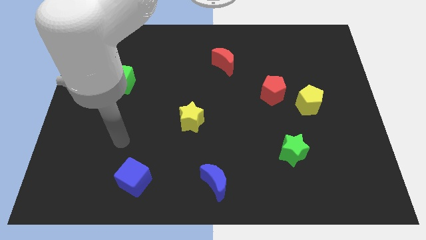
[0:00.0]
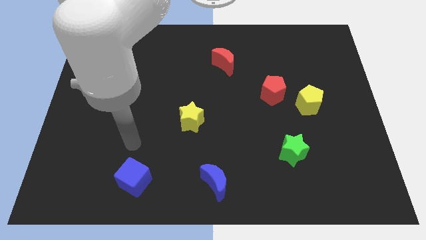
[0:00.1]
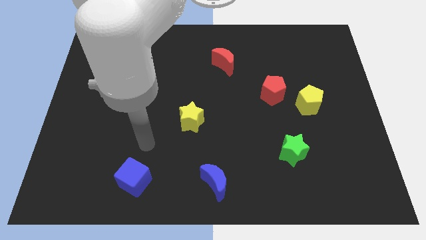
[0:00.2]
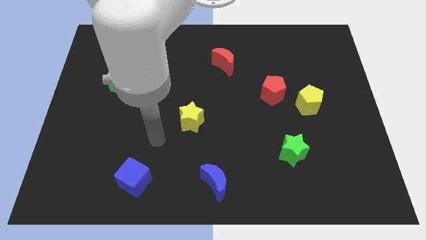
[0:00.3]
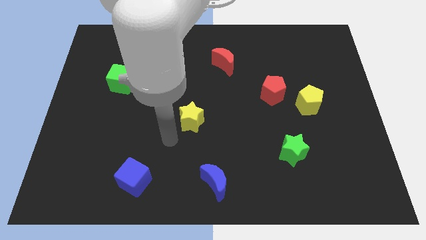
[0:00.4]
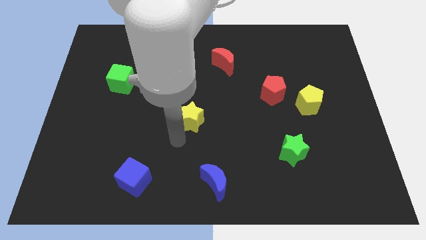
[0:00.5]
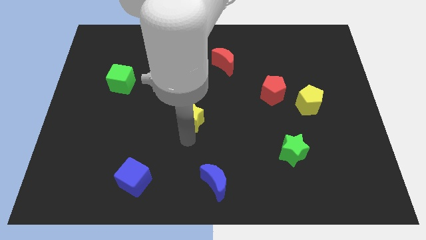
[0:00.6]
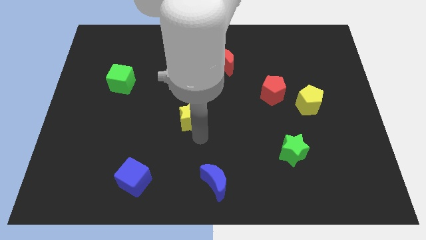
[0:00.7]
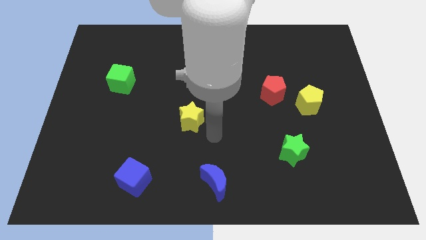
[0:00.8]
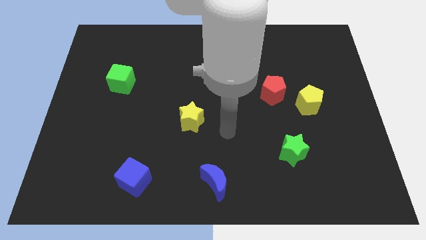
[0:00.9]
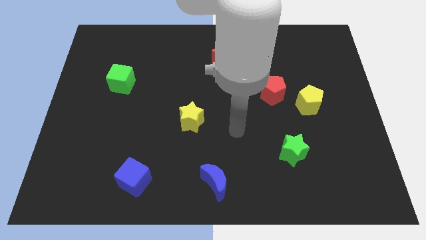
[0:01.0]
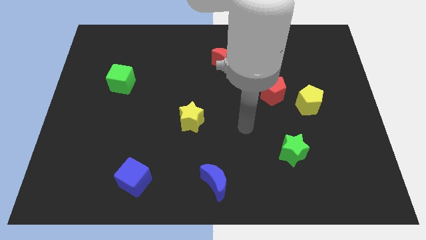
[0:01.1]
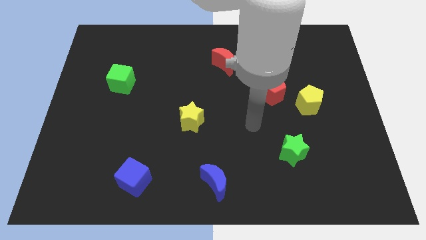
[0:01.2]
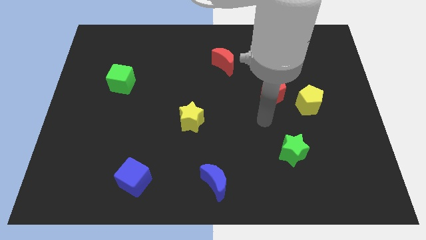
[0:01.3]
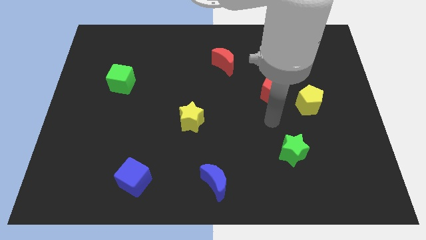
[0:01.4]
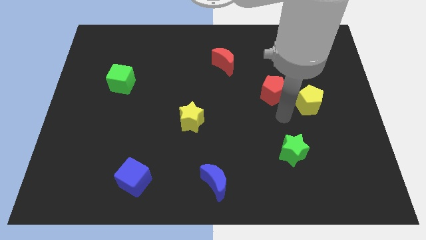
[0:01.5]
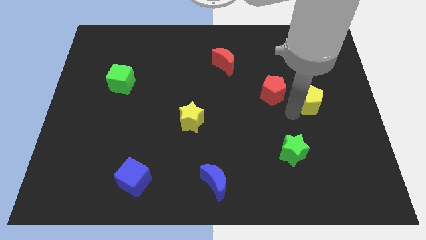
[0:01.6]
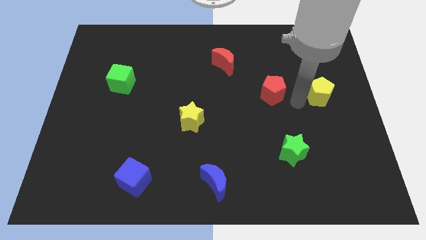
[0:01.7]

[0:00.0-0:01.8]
move the red pentagon away from the yellow pentagon

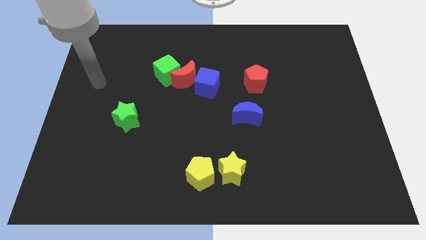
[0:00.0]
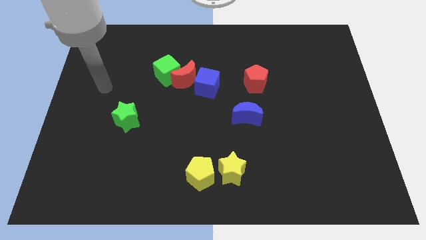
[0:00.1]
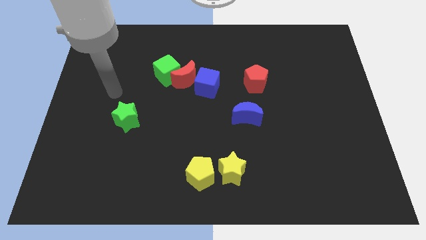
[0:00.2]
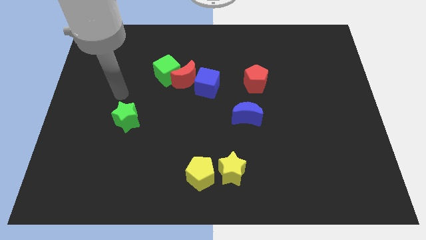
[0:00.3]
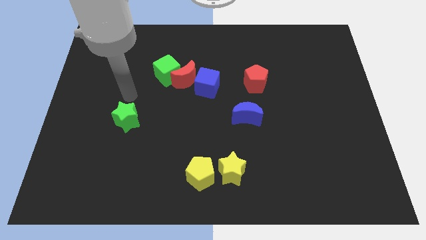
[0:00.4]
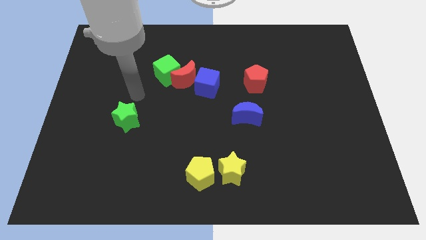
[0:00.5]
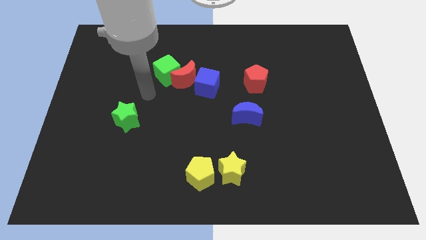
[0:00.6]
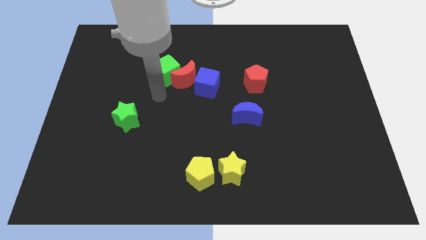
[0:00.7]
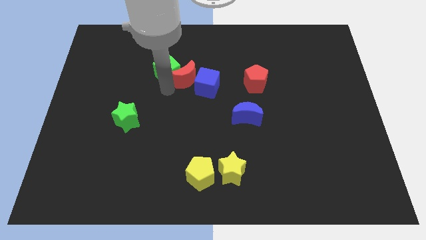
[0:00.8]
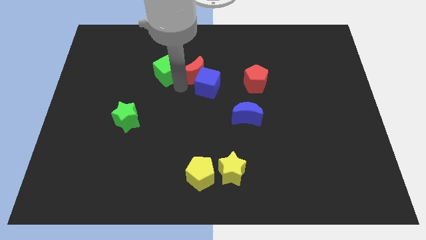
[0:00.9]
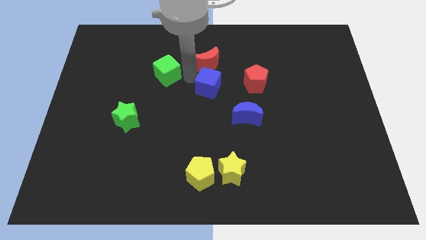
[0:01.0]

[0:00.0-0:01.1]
separate the green cube from the red moon

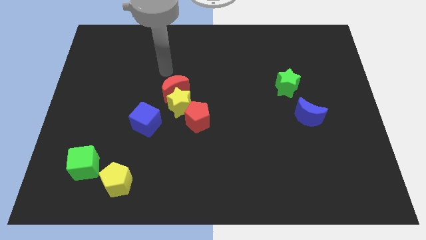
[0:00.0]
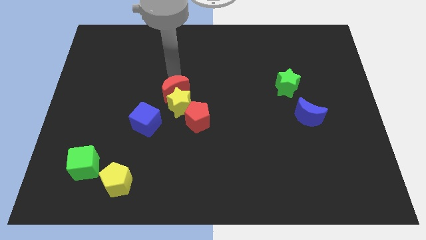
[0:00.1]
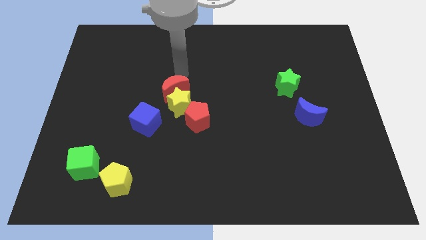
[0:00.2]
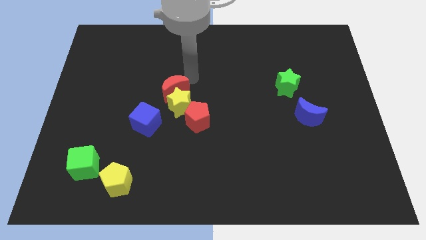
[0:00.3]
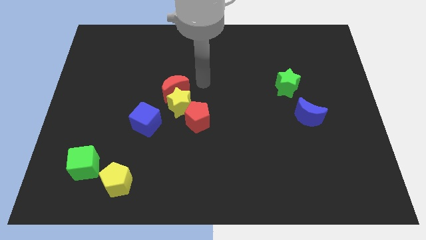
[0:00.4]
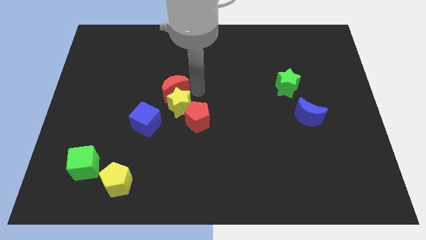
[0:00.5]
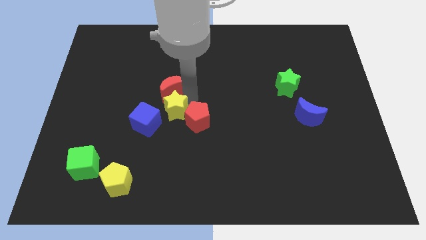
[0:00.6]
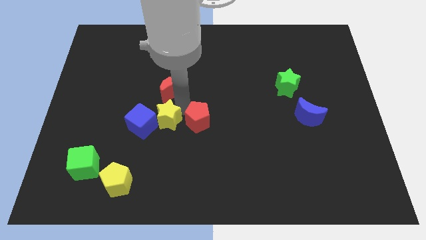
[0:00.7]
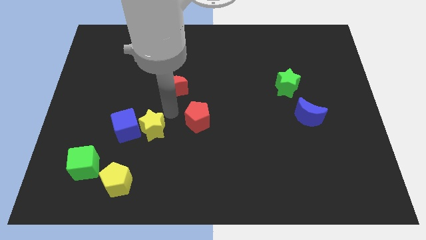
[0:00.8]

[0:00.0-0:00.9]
pull the red moon apart from the yellow star

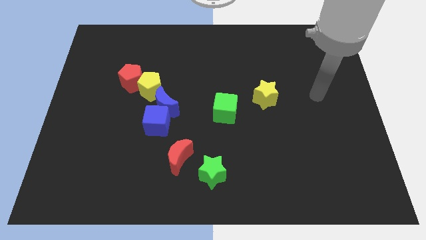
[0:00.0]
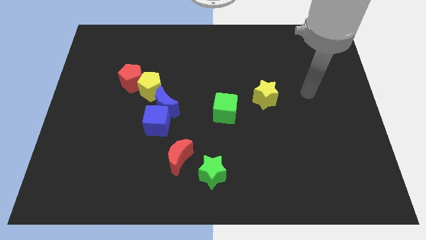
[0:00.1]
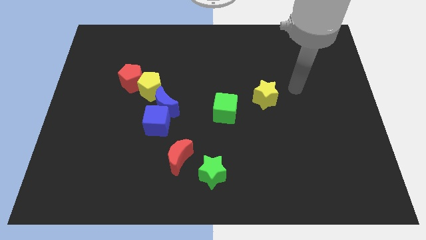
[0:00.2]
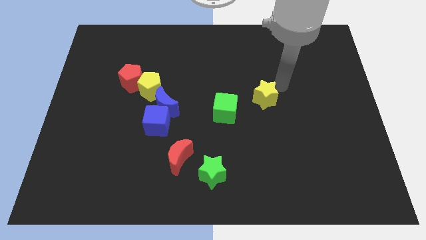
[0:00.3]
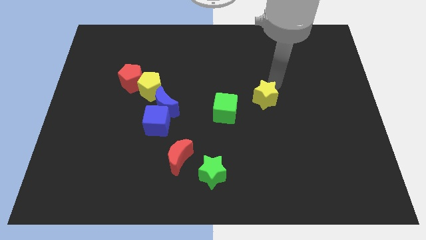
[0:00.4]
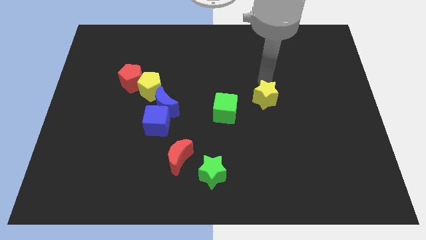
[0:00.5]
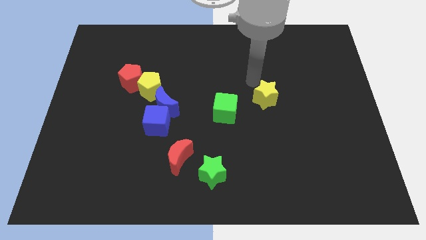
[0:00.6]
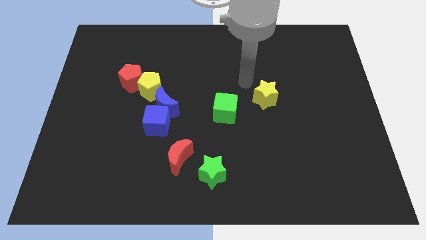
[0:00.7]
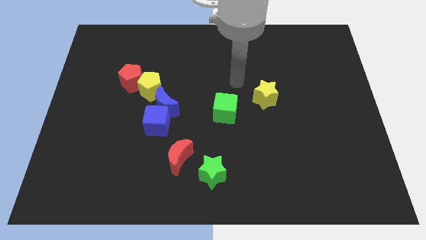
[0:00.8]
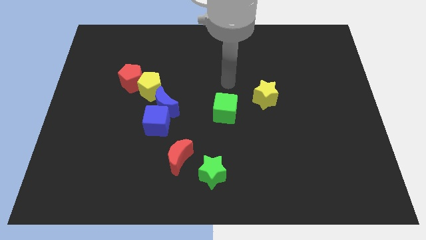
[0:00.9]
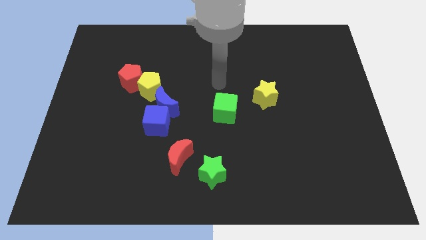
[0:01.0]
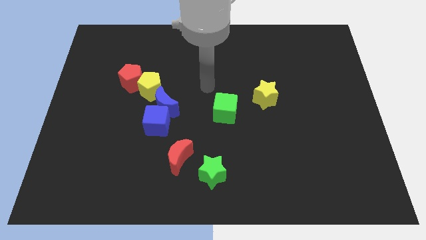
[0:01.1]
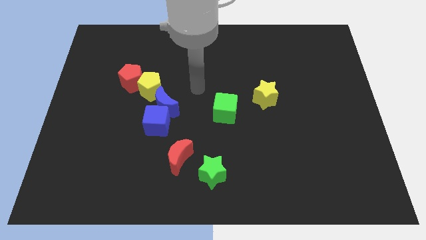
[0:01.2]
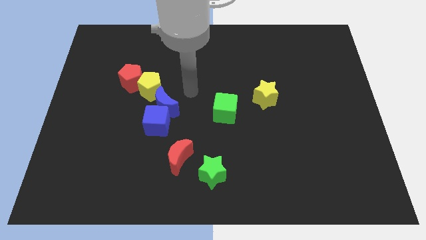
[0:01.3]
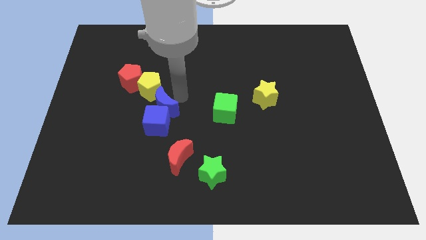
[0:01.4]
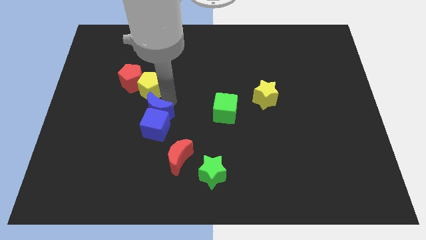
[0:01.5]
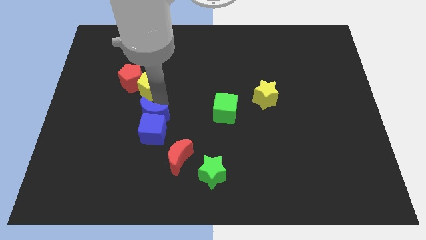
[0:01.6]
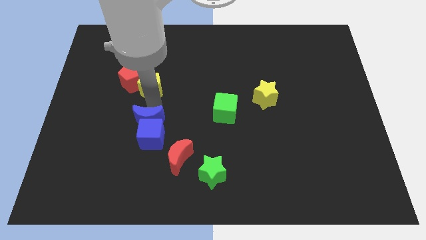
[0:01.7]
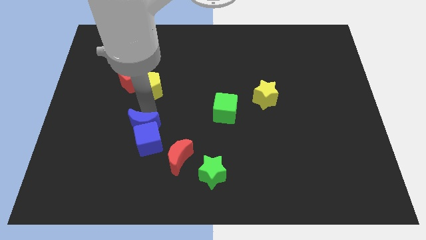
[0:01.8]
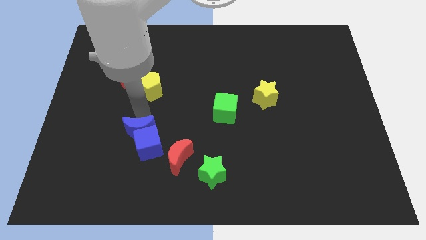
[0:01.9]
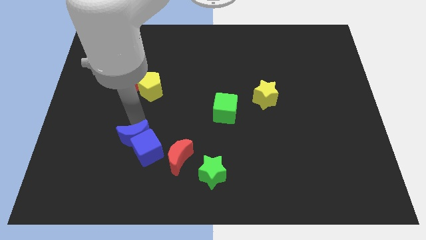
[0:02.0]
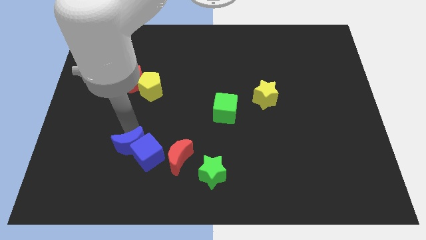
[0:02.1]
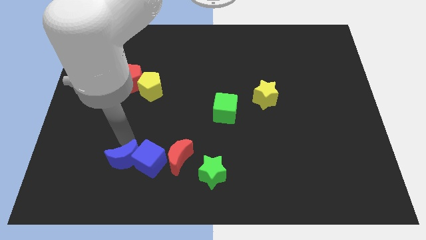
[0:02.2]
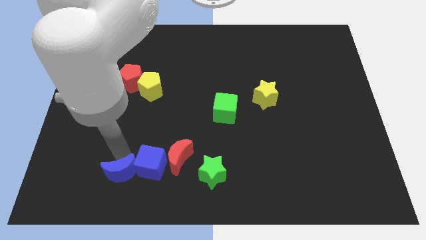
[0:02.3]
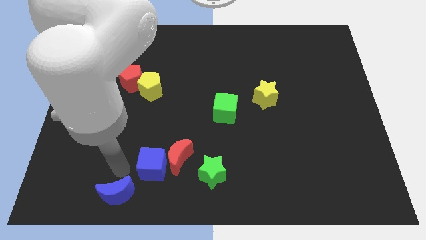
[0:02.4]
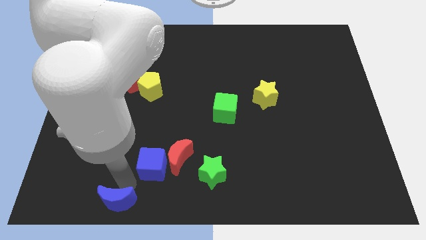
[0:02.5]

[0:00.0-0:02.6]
separate the blue cube from the blue moon

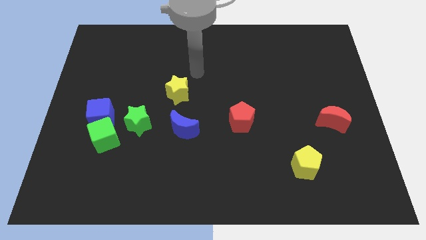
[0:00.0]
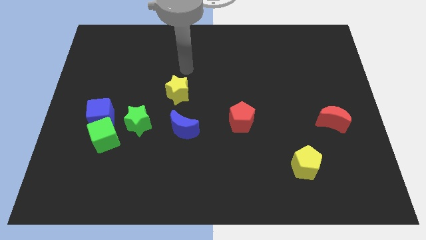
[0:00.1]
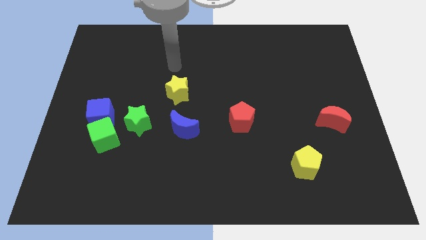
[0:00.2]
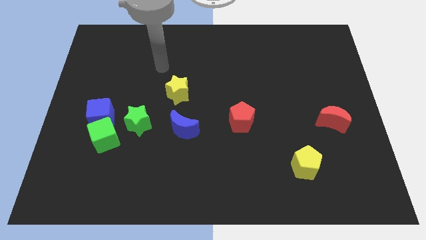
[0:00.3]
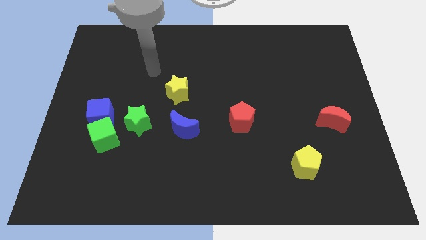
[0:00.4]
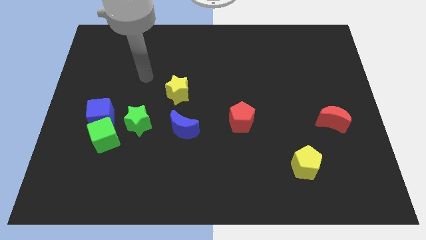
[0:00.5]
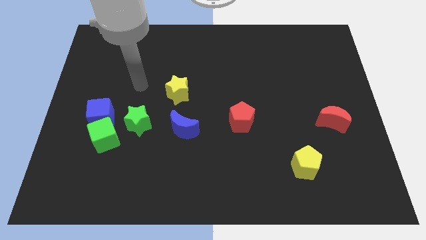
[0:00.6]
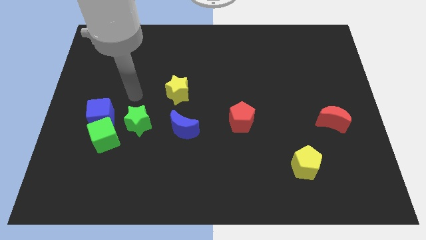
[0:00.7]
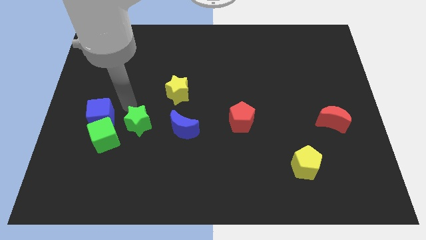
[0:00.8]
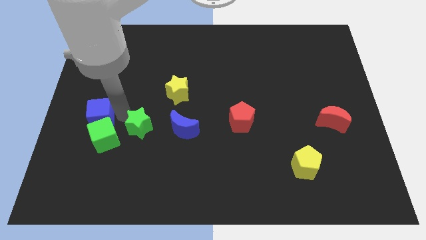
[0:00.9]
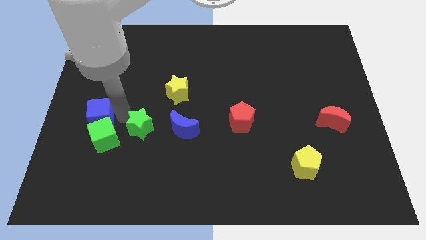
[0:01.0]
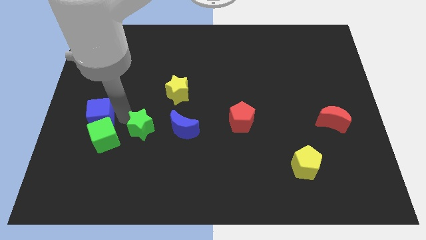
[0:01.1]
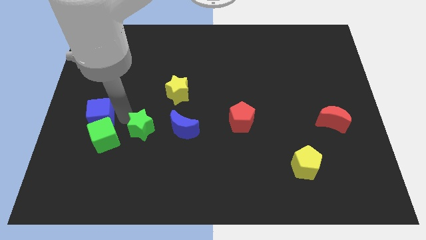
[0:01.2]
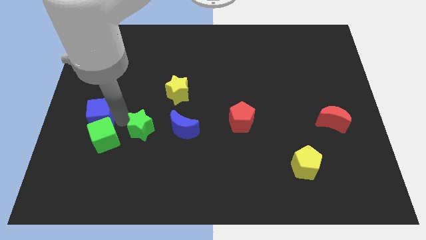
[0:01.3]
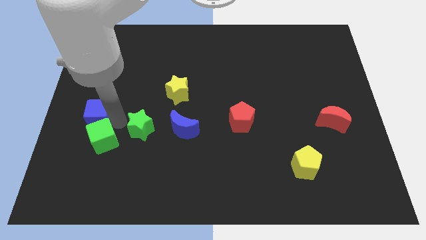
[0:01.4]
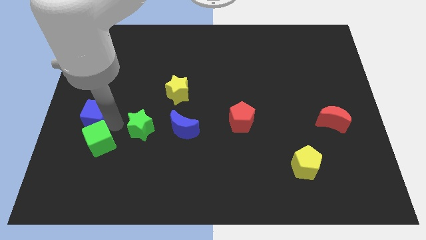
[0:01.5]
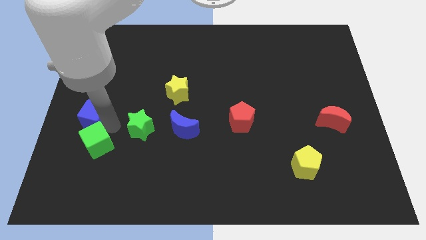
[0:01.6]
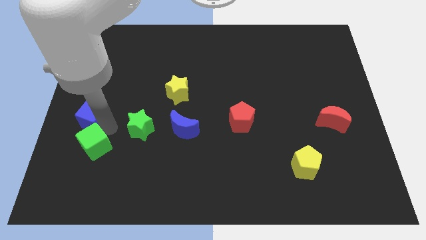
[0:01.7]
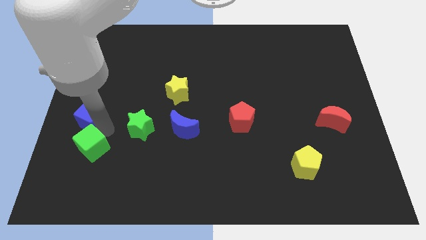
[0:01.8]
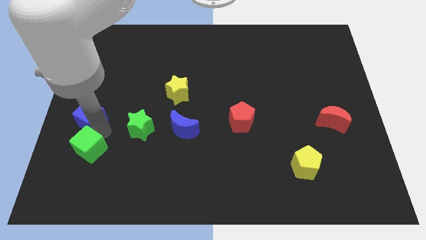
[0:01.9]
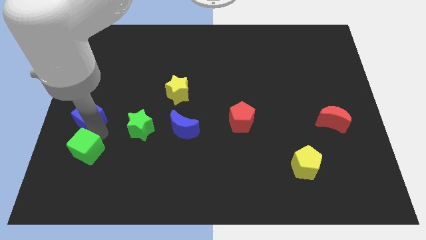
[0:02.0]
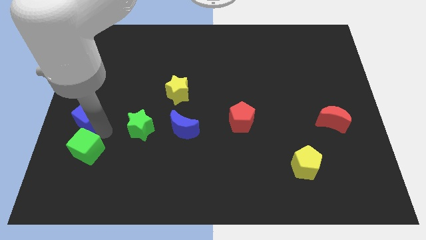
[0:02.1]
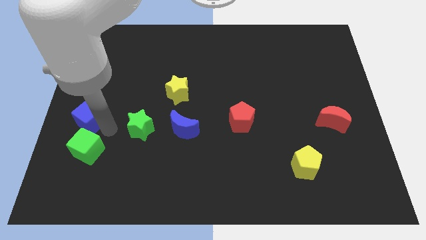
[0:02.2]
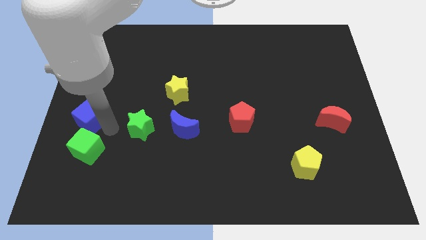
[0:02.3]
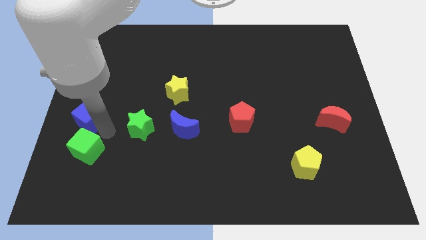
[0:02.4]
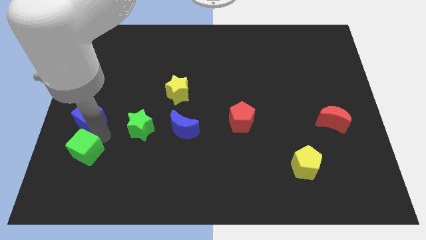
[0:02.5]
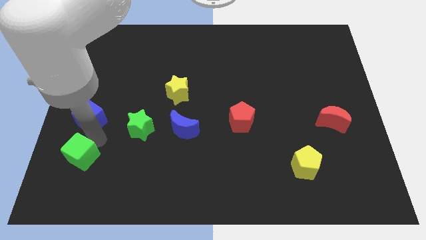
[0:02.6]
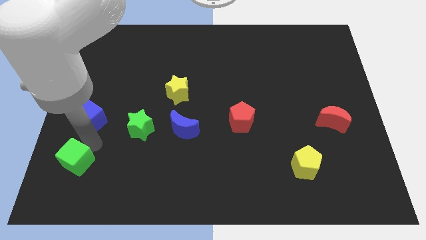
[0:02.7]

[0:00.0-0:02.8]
move the green cube away from the blue cube and green star

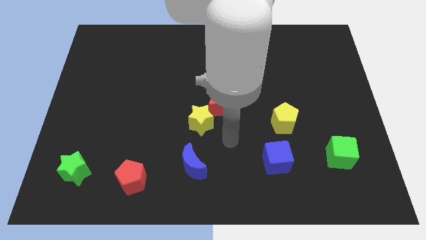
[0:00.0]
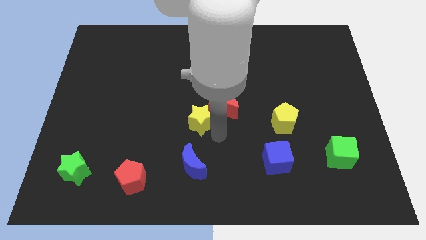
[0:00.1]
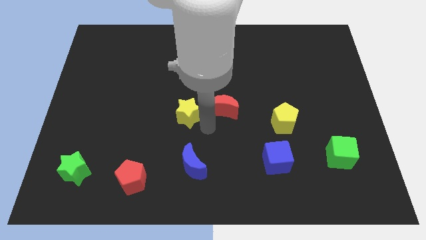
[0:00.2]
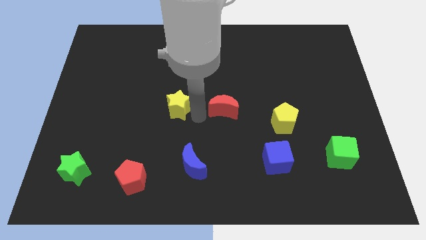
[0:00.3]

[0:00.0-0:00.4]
move the red moon away from the yellow star
